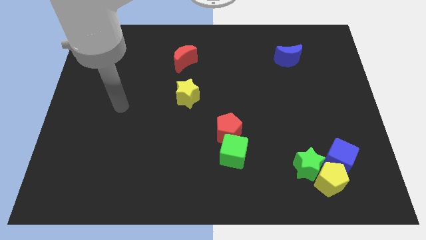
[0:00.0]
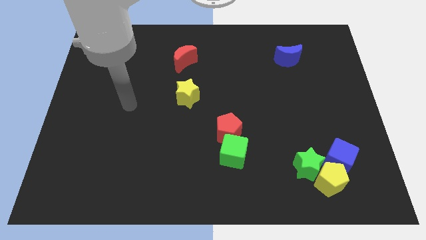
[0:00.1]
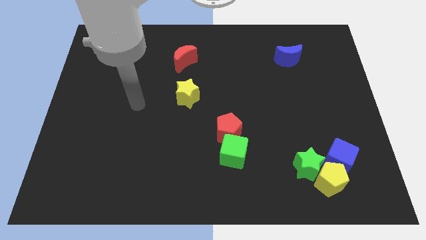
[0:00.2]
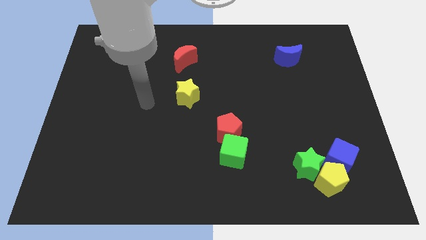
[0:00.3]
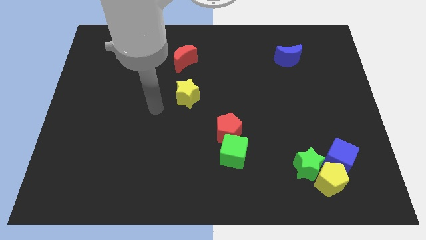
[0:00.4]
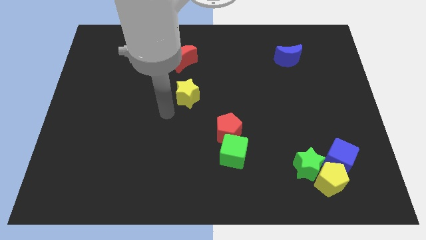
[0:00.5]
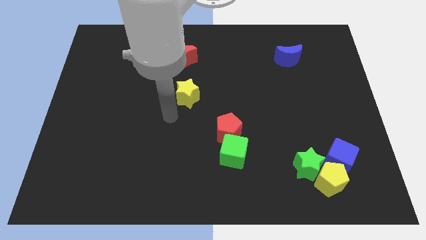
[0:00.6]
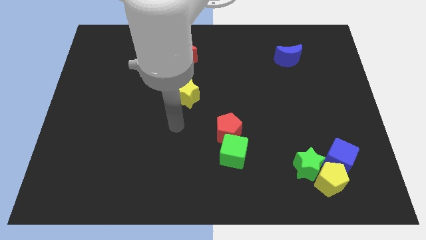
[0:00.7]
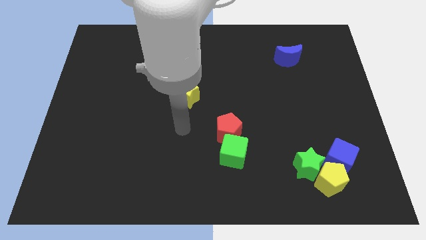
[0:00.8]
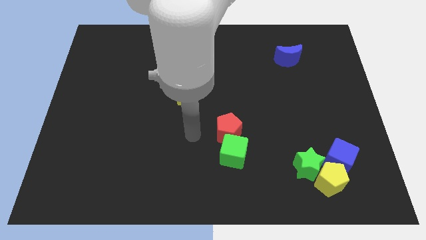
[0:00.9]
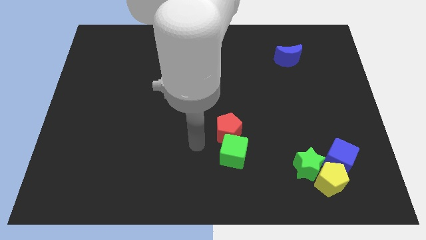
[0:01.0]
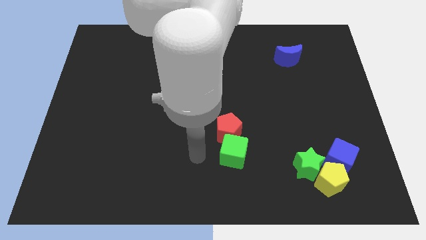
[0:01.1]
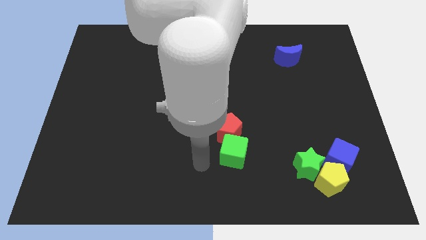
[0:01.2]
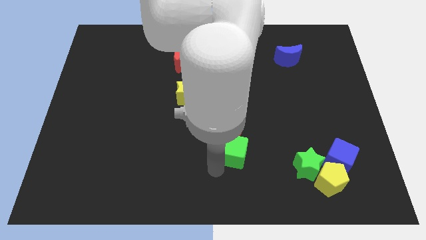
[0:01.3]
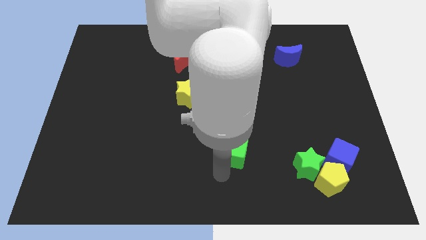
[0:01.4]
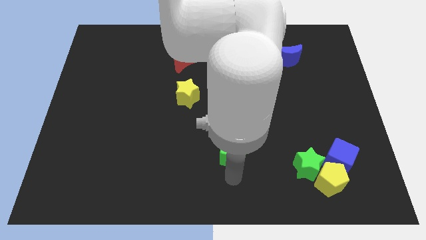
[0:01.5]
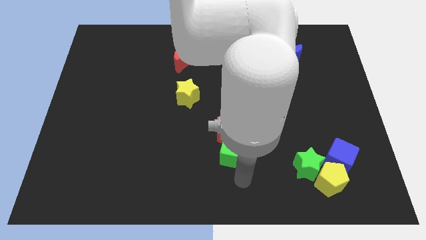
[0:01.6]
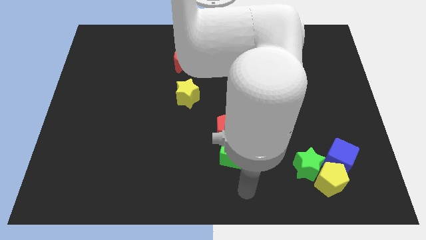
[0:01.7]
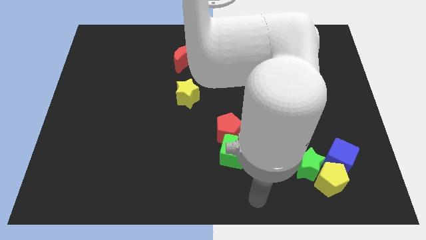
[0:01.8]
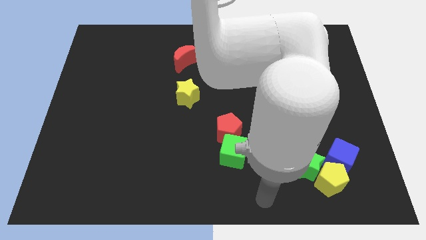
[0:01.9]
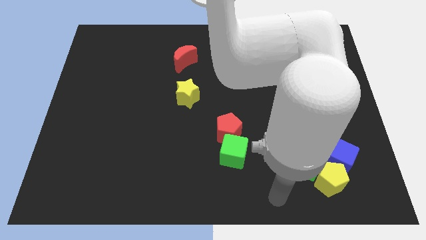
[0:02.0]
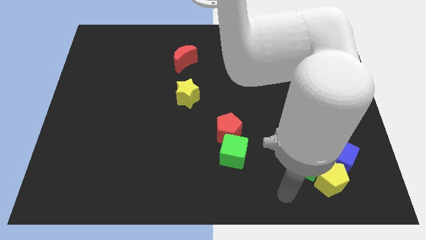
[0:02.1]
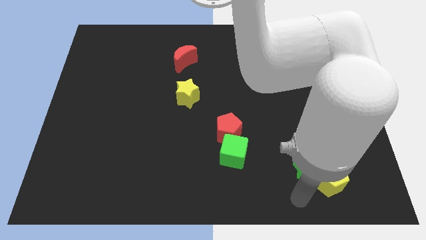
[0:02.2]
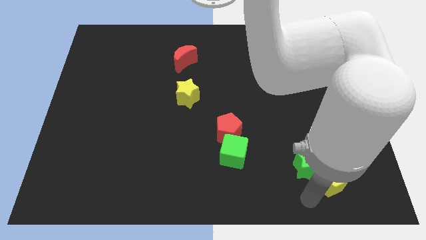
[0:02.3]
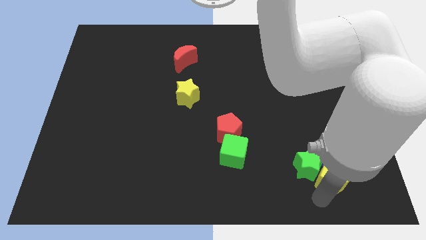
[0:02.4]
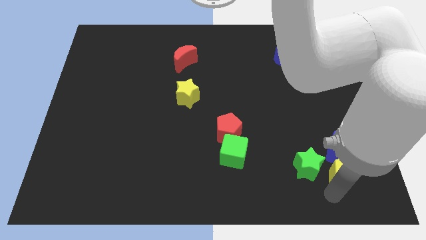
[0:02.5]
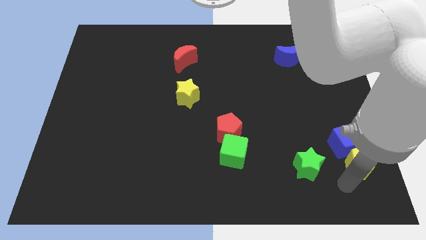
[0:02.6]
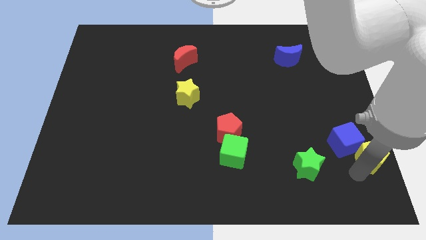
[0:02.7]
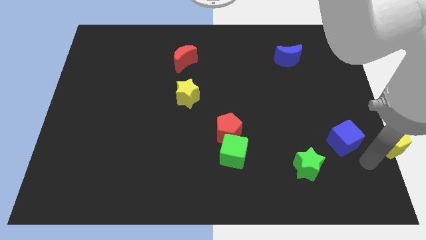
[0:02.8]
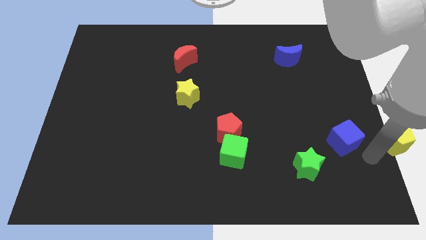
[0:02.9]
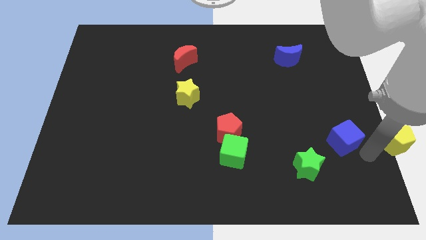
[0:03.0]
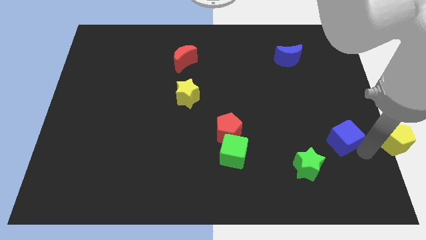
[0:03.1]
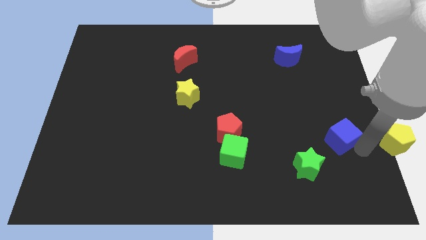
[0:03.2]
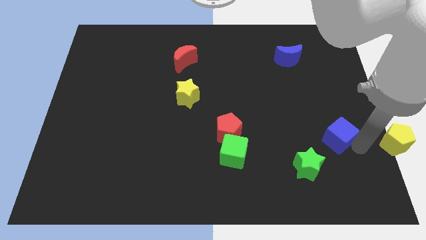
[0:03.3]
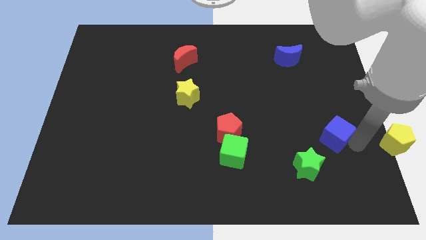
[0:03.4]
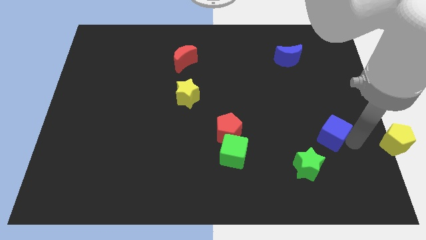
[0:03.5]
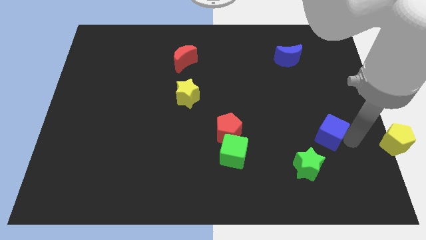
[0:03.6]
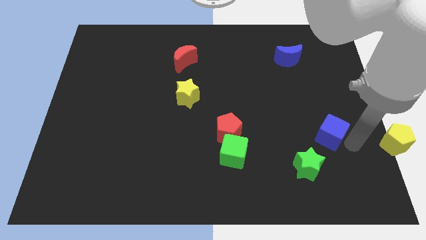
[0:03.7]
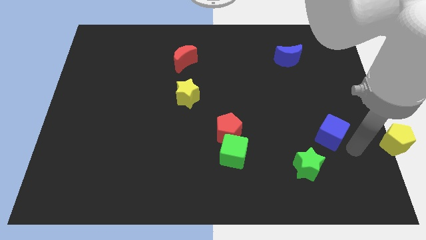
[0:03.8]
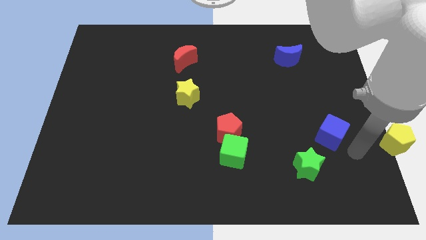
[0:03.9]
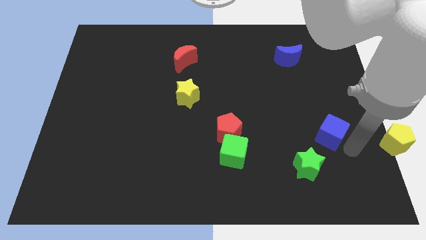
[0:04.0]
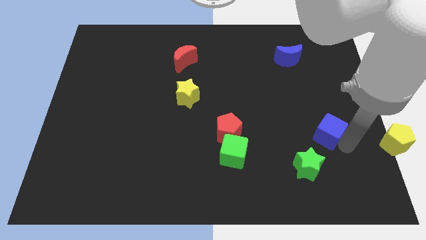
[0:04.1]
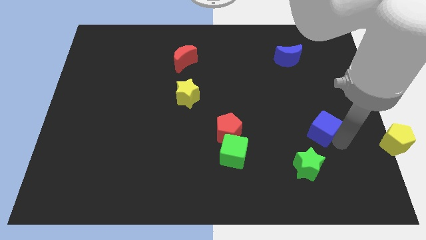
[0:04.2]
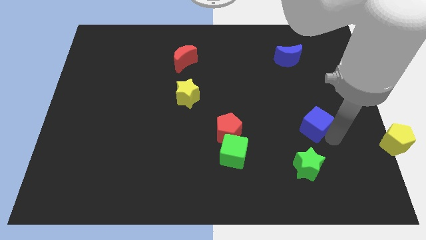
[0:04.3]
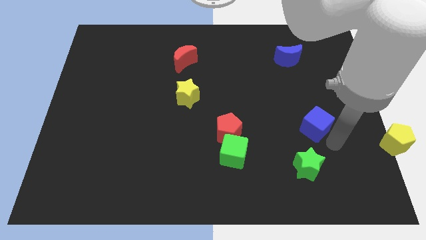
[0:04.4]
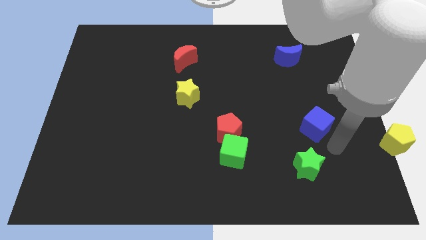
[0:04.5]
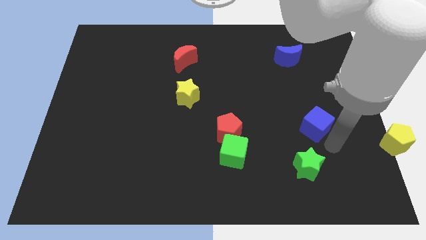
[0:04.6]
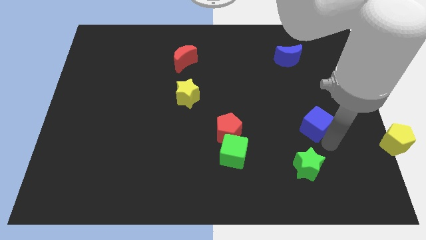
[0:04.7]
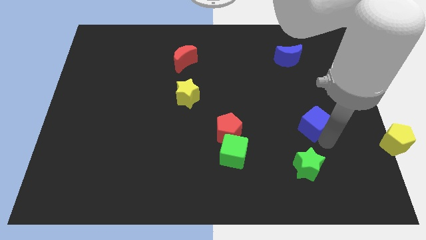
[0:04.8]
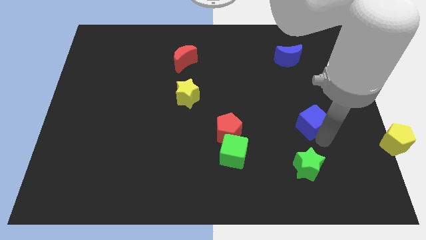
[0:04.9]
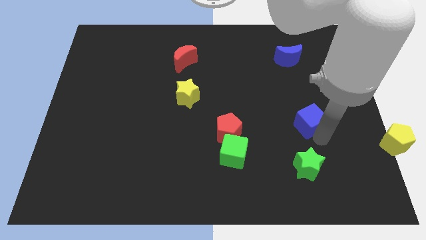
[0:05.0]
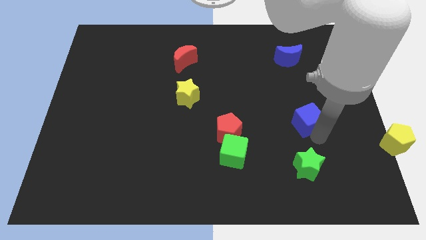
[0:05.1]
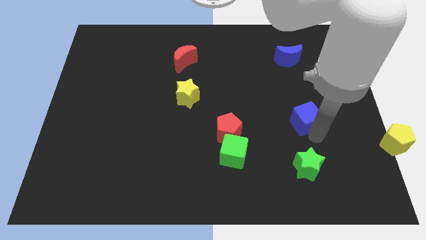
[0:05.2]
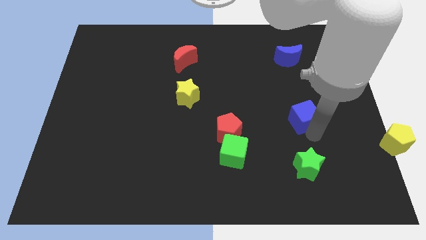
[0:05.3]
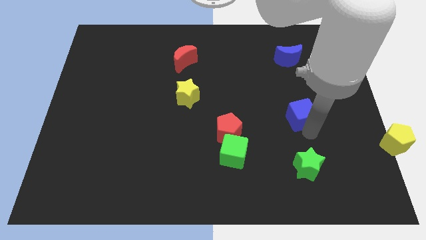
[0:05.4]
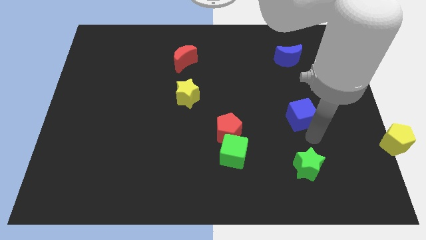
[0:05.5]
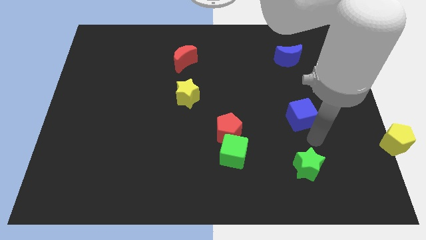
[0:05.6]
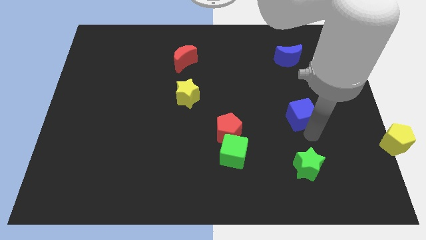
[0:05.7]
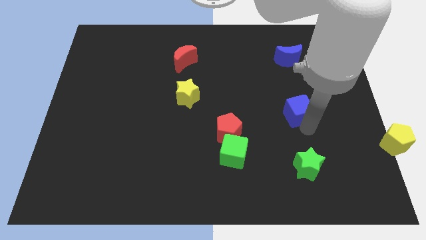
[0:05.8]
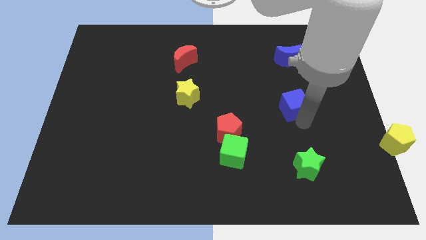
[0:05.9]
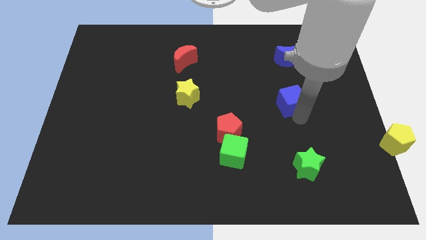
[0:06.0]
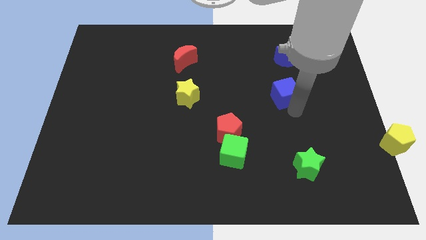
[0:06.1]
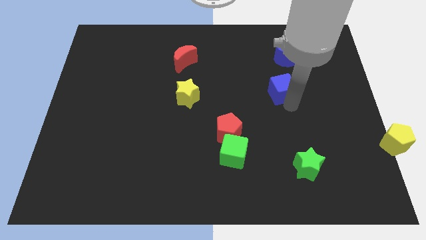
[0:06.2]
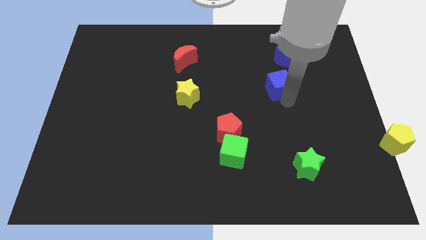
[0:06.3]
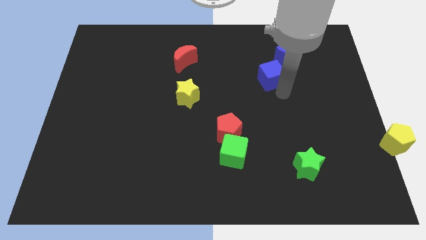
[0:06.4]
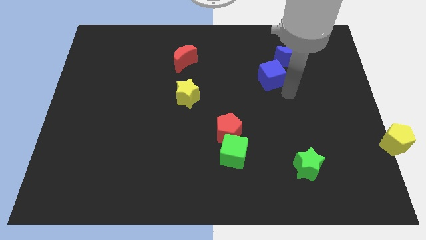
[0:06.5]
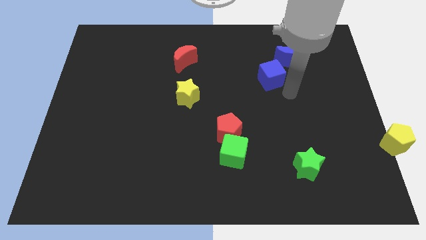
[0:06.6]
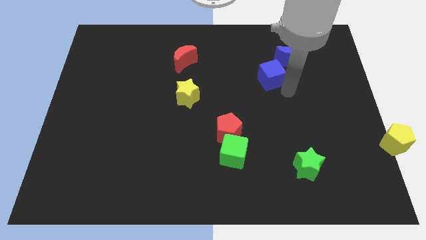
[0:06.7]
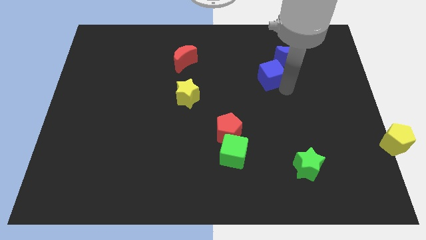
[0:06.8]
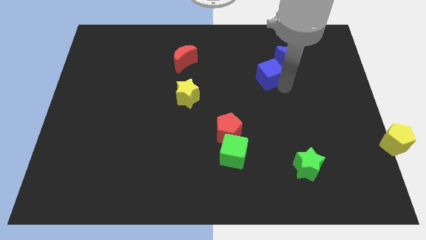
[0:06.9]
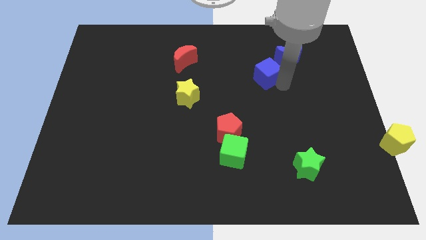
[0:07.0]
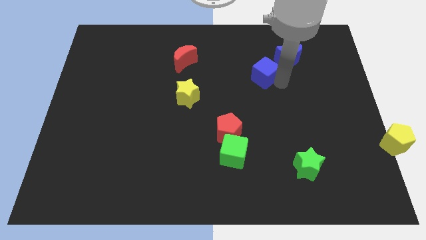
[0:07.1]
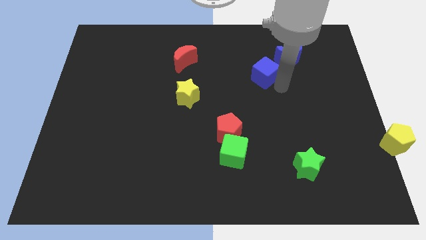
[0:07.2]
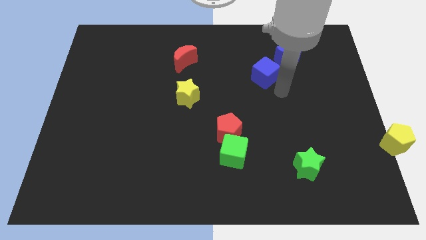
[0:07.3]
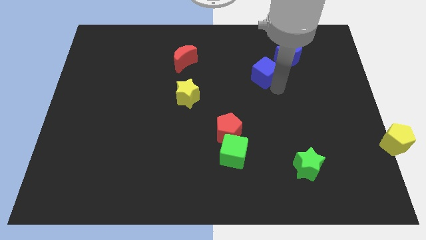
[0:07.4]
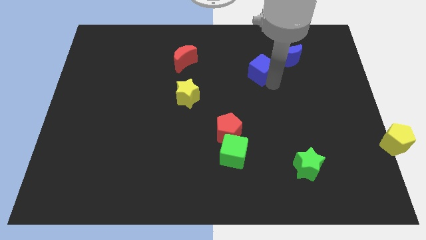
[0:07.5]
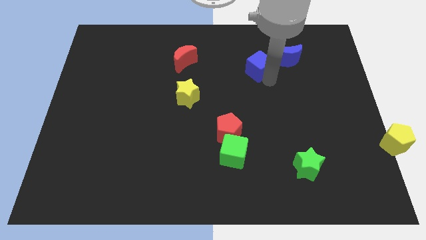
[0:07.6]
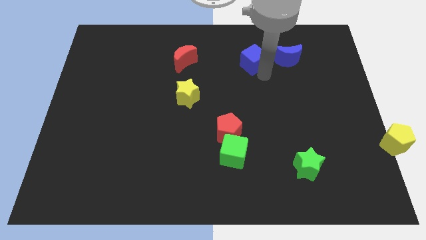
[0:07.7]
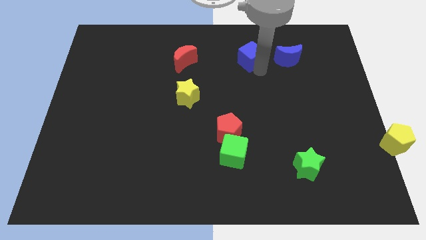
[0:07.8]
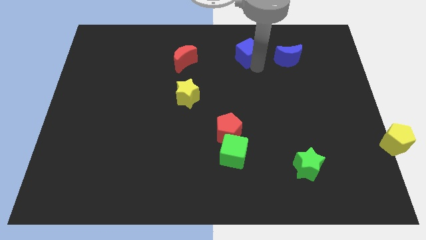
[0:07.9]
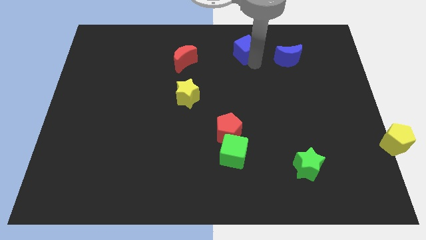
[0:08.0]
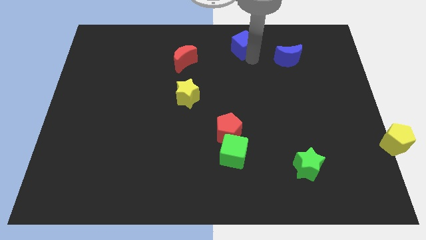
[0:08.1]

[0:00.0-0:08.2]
move the blue cube to the top side
